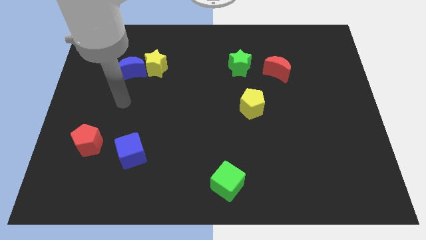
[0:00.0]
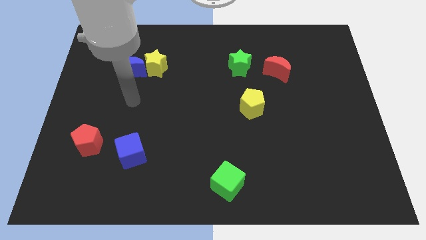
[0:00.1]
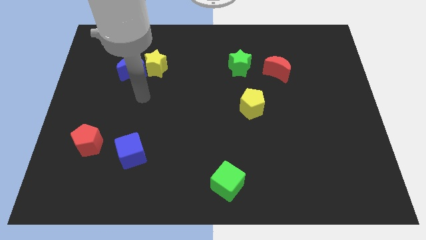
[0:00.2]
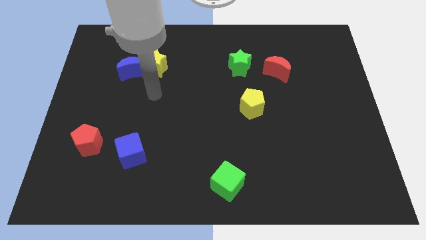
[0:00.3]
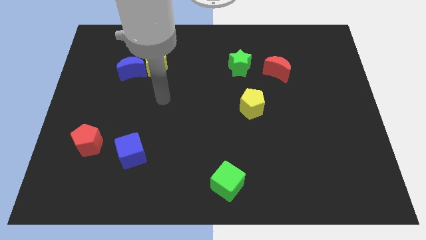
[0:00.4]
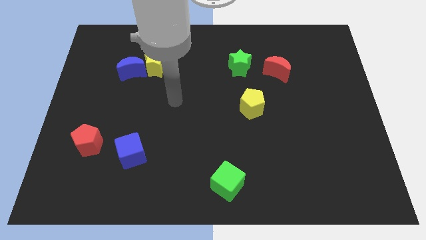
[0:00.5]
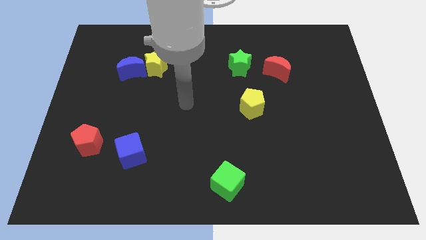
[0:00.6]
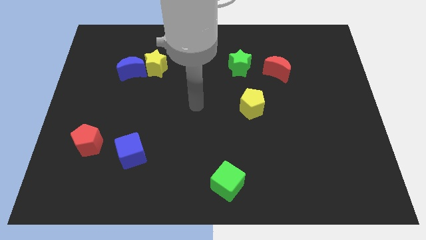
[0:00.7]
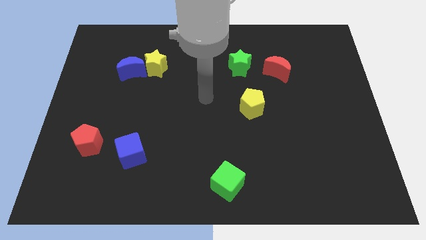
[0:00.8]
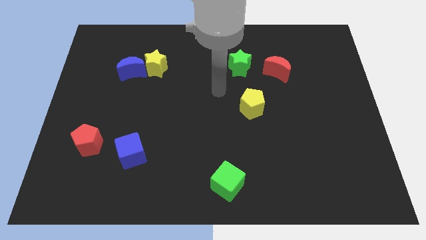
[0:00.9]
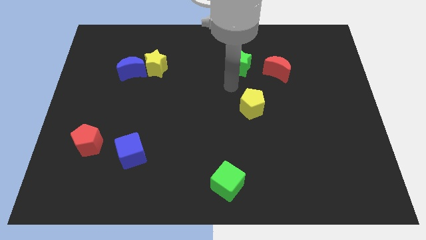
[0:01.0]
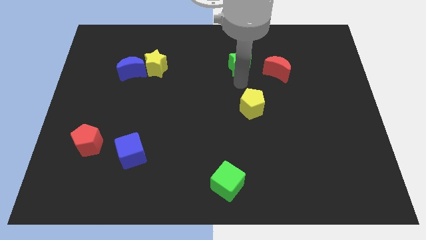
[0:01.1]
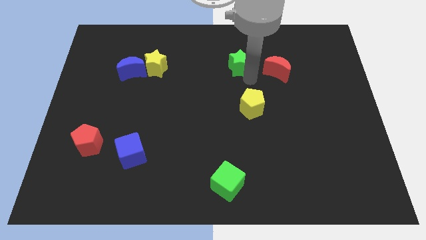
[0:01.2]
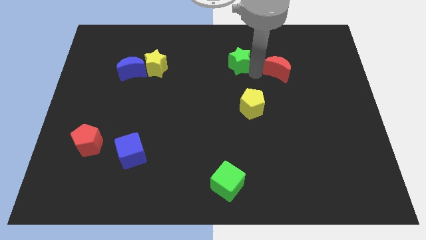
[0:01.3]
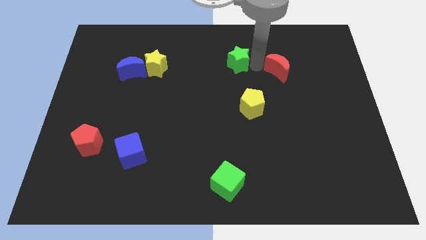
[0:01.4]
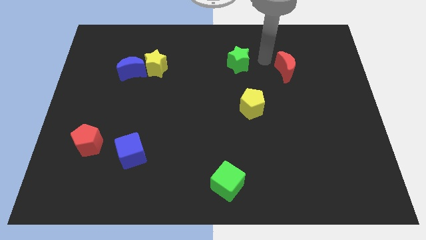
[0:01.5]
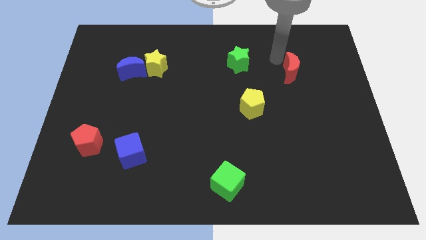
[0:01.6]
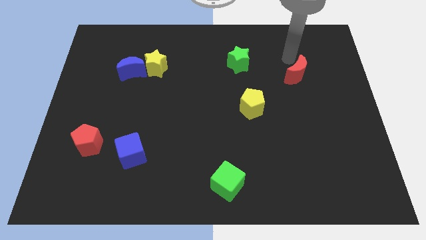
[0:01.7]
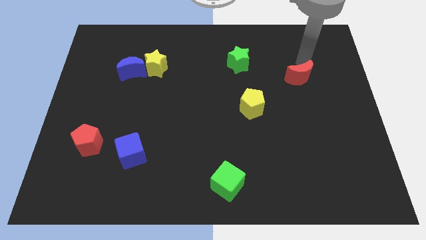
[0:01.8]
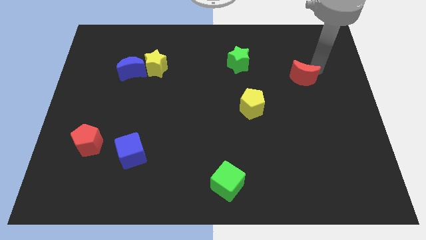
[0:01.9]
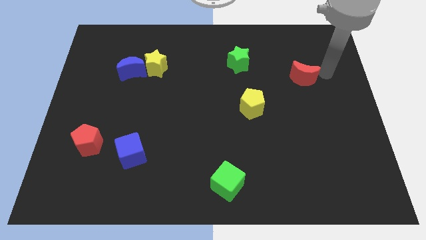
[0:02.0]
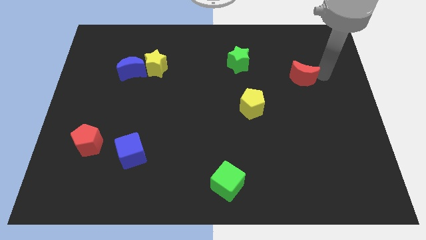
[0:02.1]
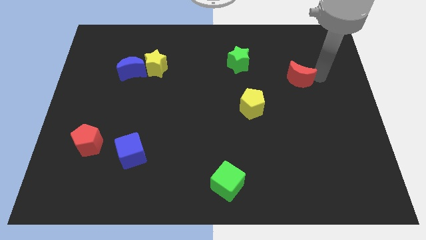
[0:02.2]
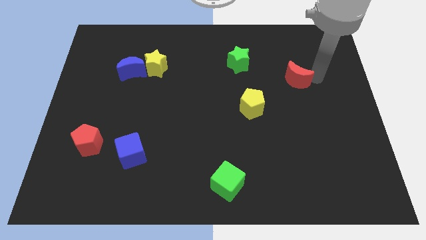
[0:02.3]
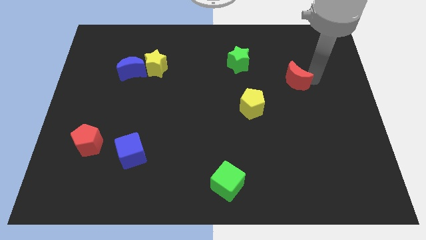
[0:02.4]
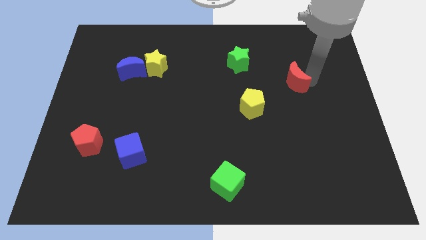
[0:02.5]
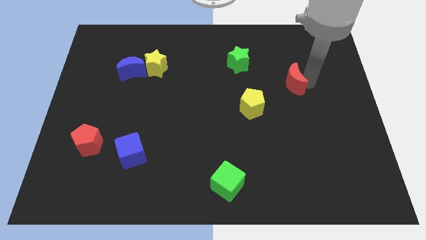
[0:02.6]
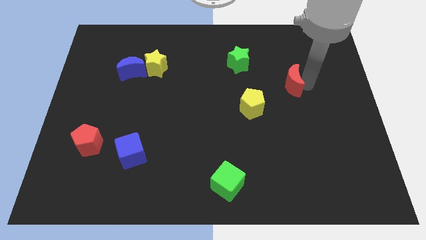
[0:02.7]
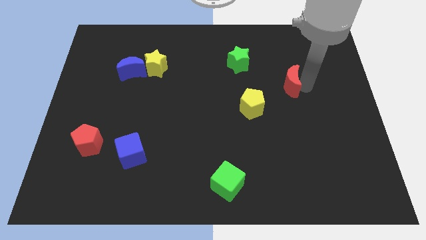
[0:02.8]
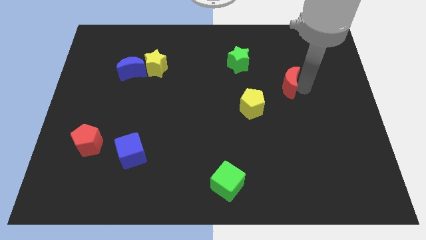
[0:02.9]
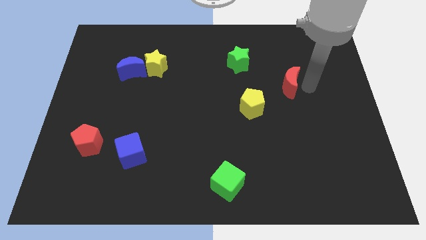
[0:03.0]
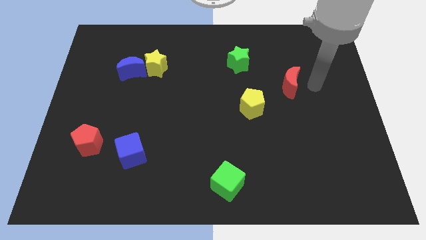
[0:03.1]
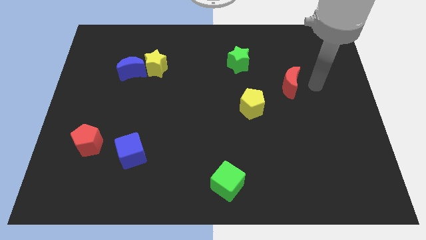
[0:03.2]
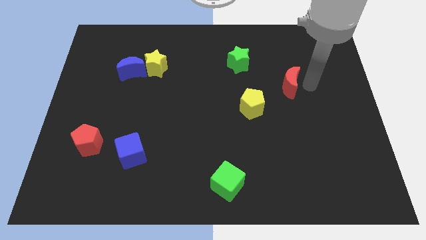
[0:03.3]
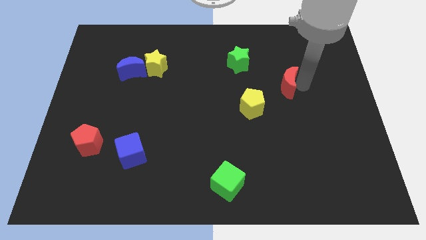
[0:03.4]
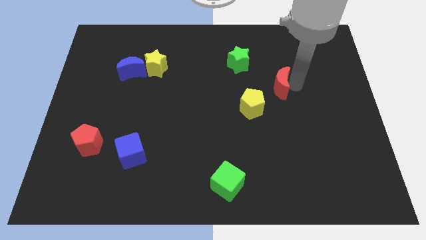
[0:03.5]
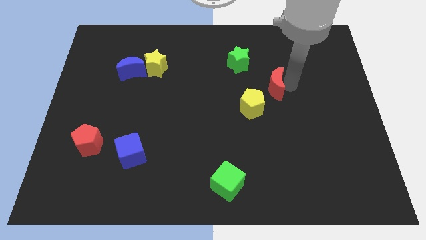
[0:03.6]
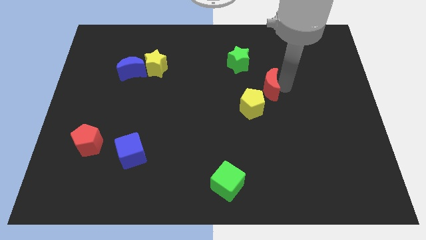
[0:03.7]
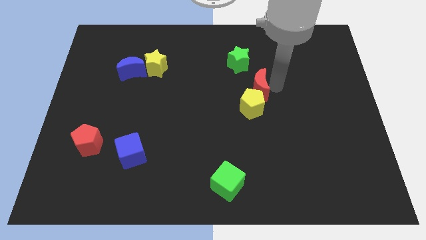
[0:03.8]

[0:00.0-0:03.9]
move the red moon slightly down and left diagonally

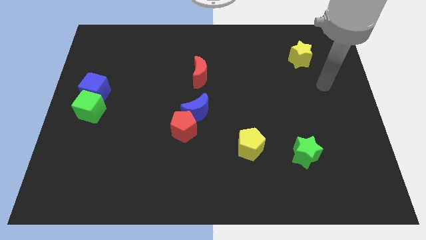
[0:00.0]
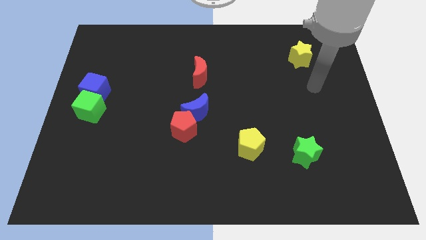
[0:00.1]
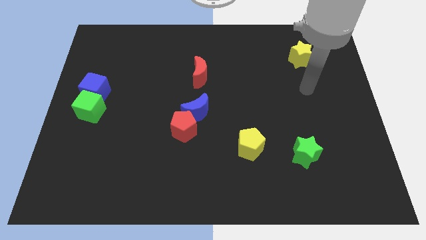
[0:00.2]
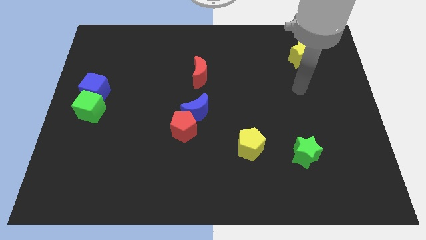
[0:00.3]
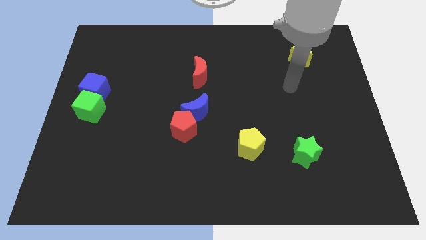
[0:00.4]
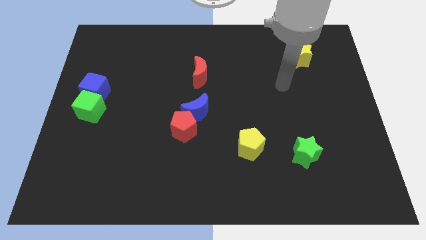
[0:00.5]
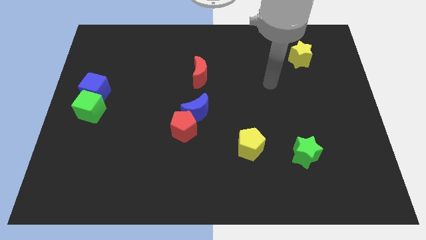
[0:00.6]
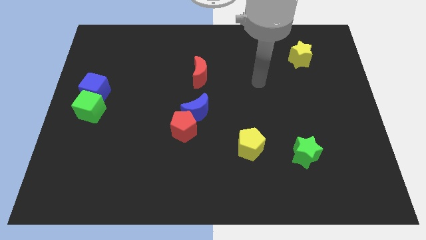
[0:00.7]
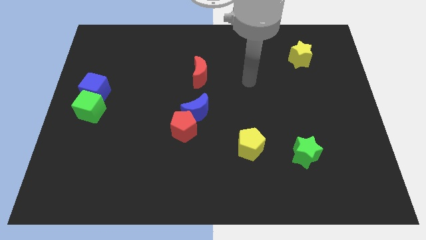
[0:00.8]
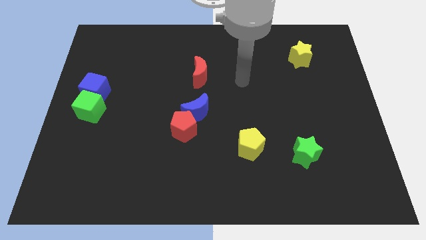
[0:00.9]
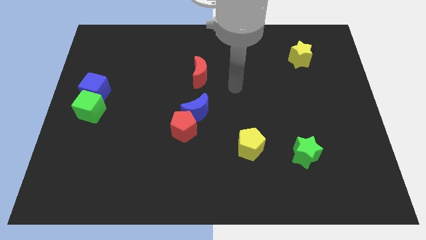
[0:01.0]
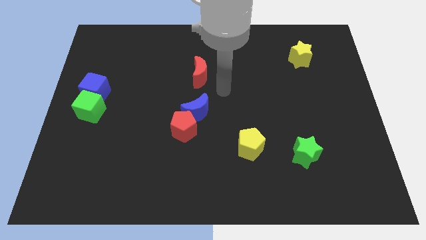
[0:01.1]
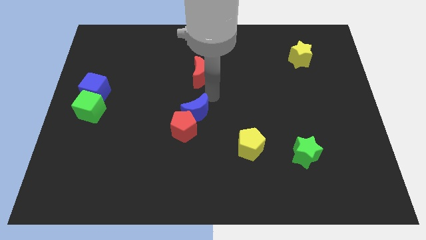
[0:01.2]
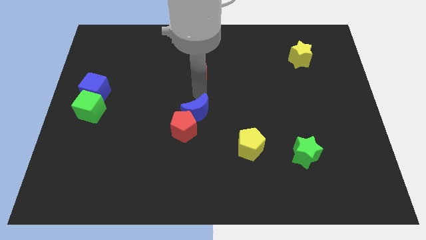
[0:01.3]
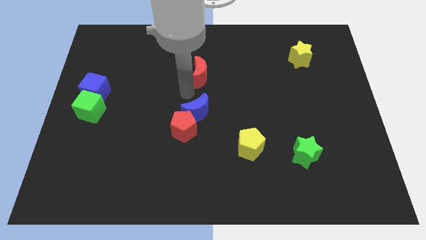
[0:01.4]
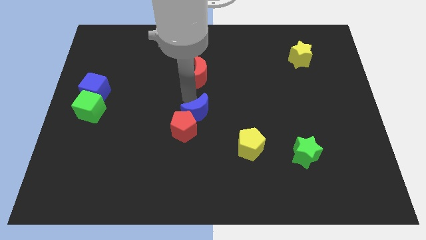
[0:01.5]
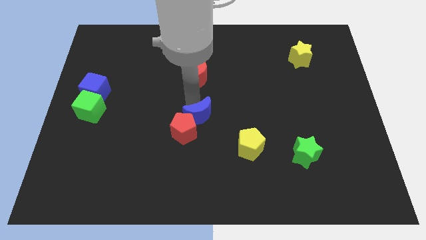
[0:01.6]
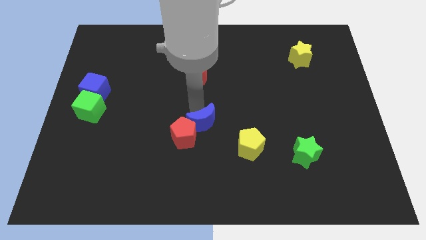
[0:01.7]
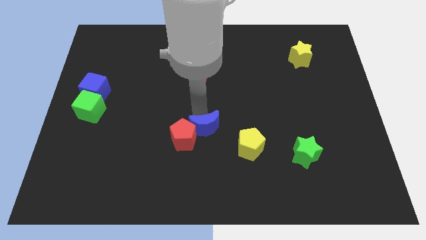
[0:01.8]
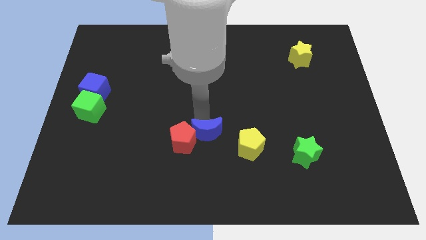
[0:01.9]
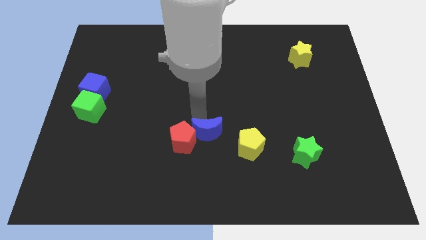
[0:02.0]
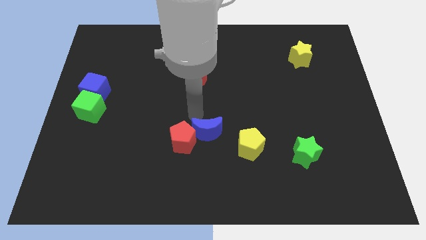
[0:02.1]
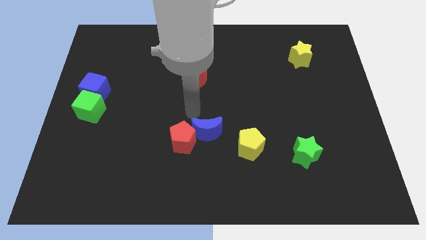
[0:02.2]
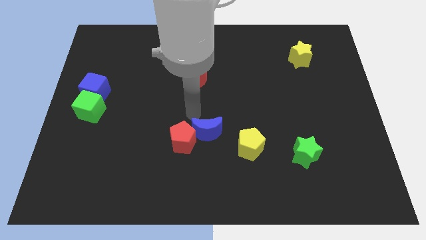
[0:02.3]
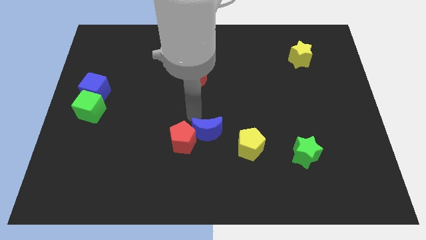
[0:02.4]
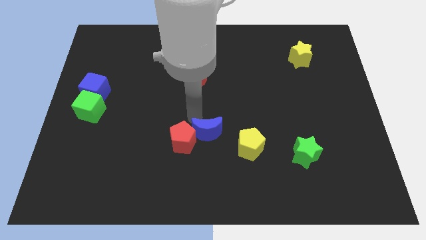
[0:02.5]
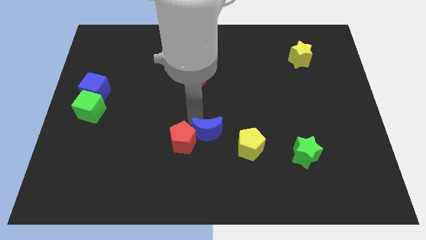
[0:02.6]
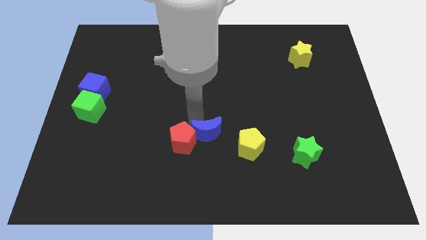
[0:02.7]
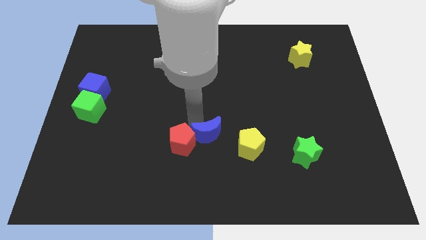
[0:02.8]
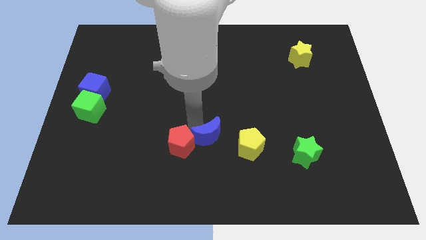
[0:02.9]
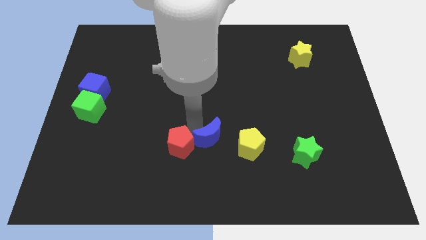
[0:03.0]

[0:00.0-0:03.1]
slide the blue moon a little bit downwards and then to the right

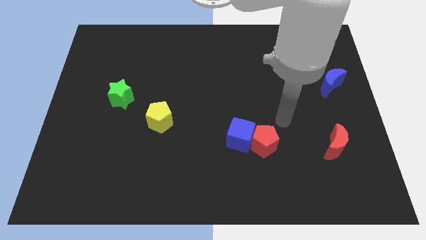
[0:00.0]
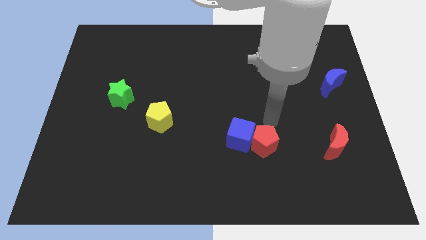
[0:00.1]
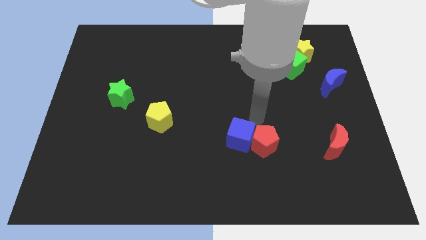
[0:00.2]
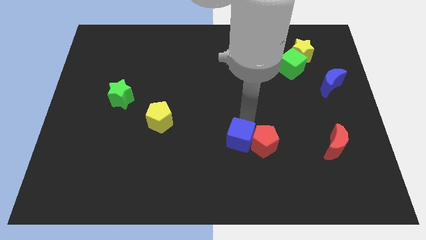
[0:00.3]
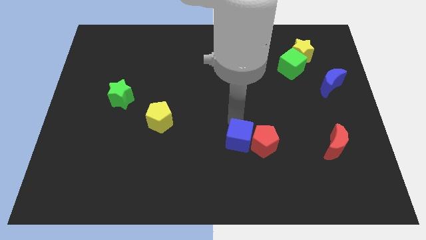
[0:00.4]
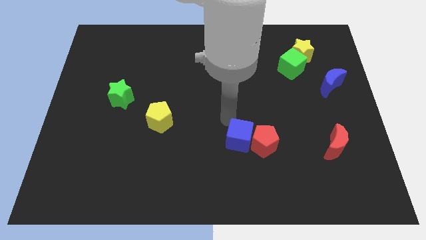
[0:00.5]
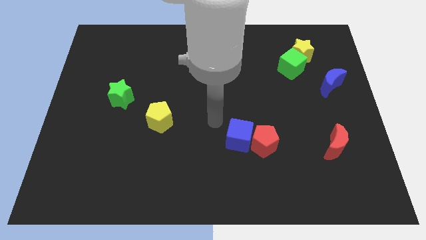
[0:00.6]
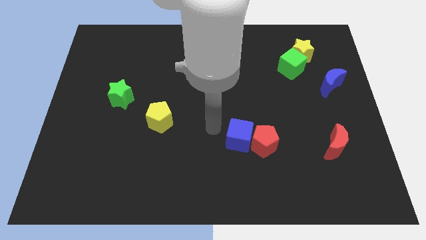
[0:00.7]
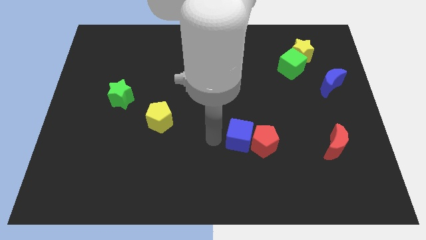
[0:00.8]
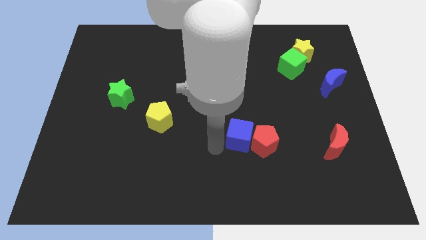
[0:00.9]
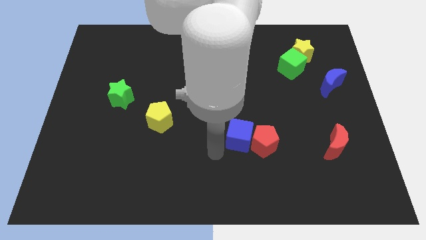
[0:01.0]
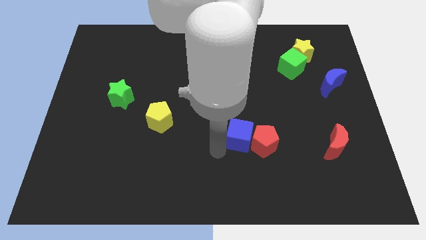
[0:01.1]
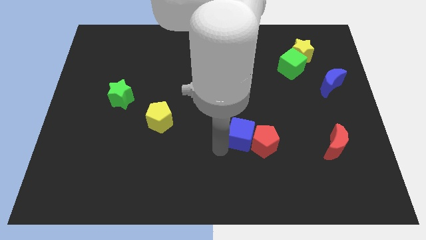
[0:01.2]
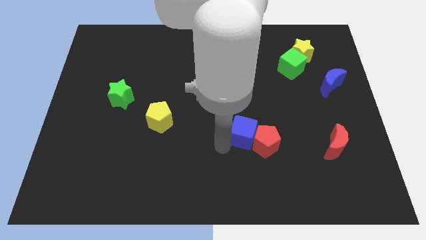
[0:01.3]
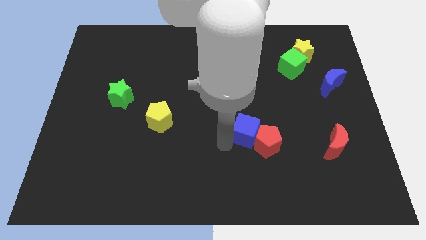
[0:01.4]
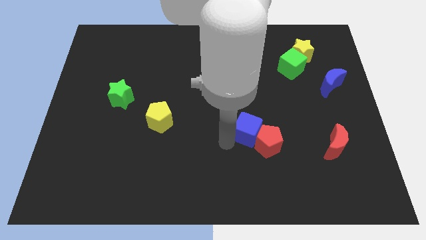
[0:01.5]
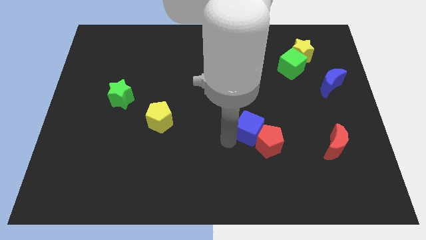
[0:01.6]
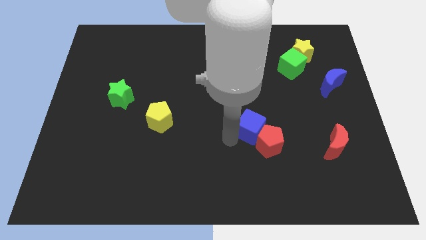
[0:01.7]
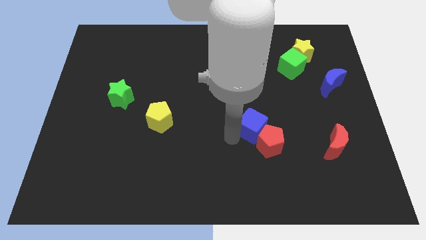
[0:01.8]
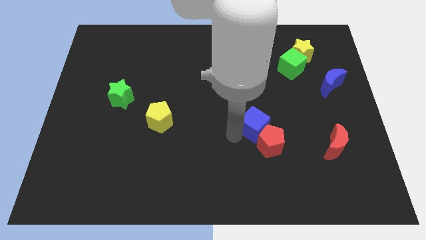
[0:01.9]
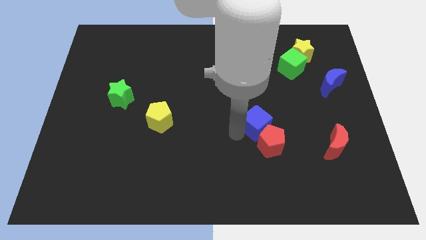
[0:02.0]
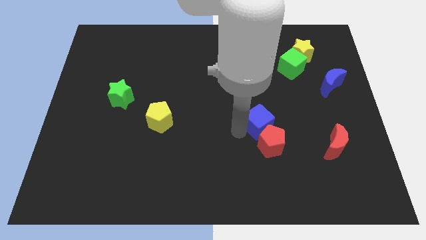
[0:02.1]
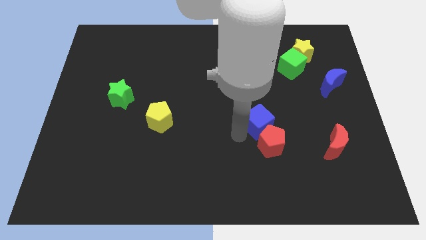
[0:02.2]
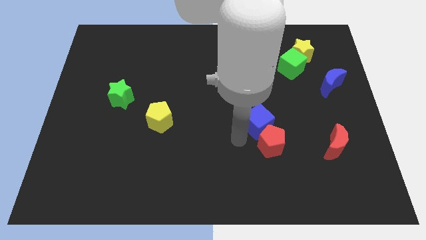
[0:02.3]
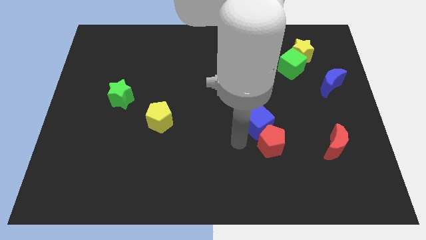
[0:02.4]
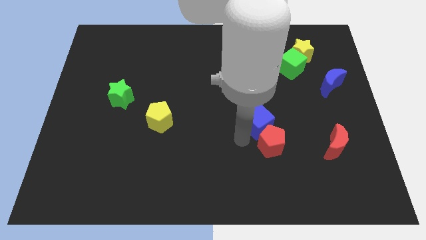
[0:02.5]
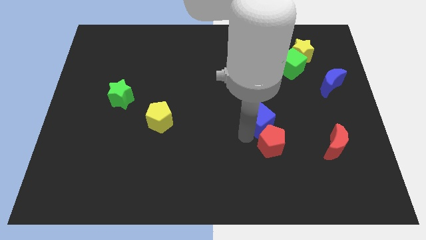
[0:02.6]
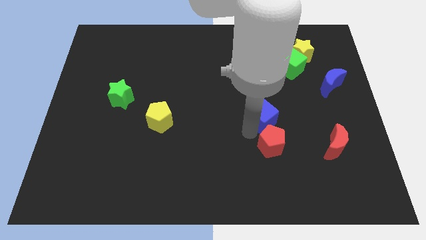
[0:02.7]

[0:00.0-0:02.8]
slide the blue cube up and then right slightly
